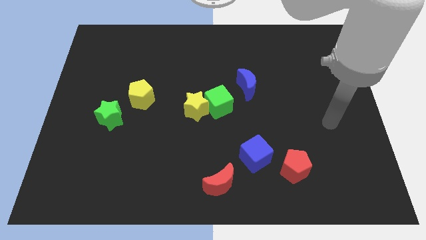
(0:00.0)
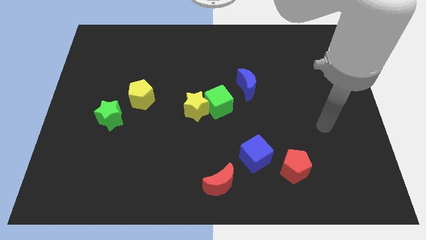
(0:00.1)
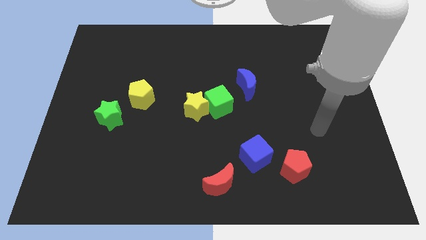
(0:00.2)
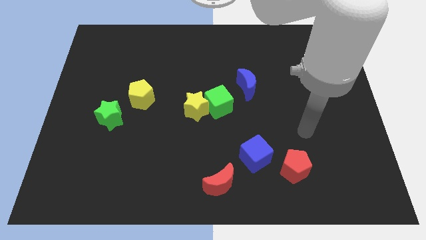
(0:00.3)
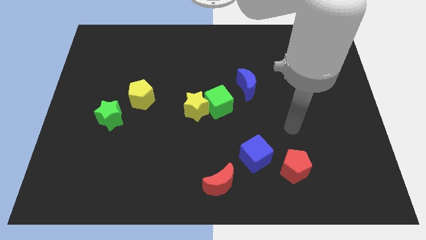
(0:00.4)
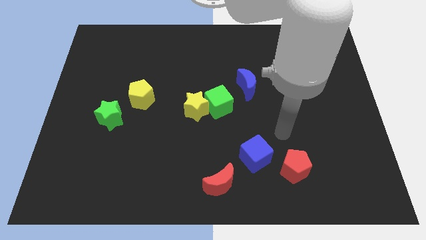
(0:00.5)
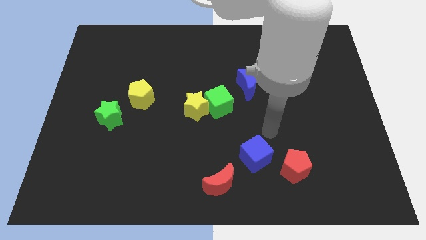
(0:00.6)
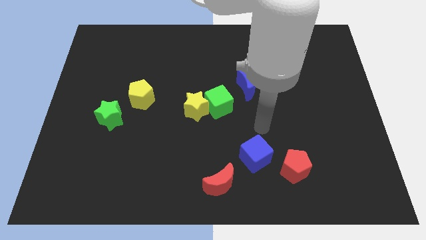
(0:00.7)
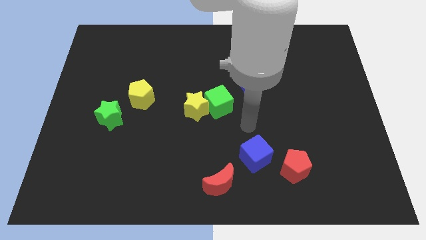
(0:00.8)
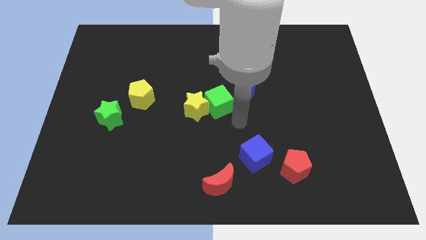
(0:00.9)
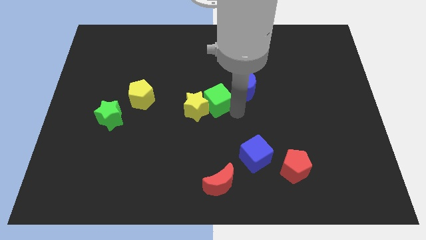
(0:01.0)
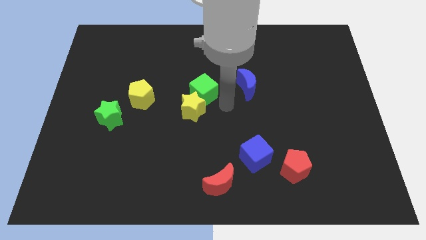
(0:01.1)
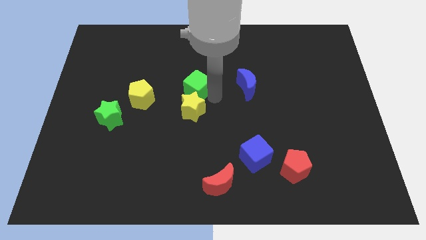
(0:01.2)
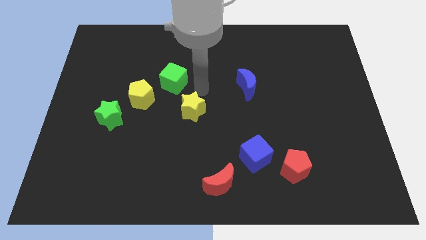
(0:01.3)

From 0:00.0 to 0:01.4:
pull the yellow star apart from the green cube

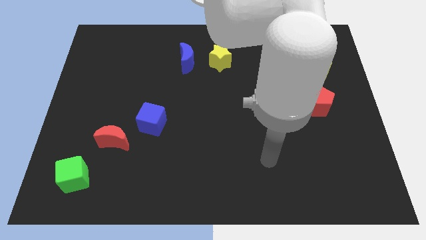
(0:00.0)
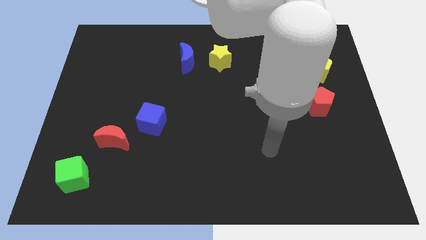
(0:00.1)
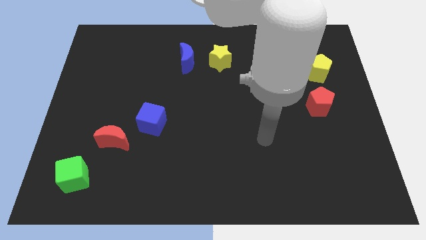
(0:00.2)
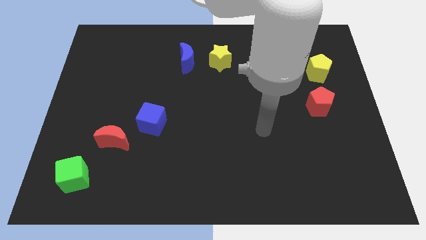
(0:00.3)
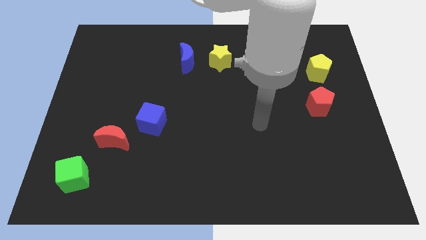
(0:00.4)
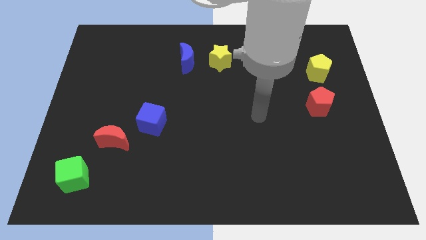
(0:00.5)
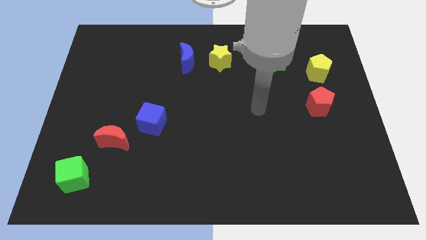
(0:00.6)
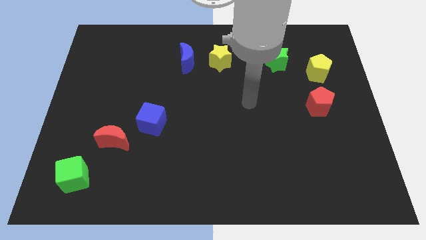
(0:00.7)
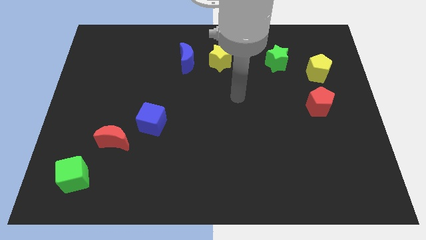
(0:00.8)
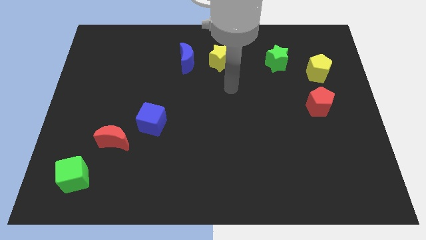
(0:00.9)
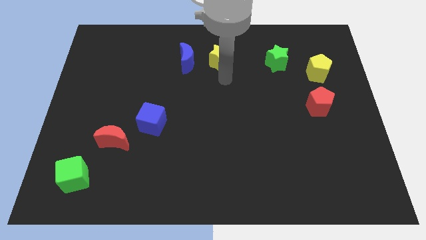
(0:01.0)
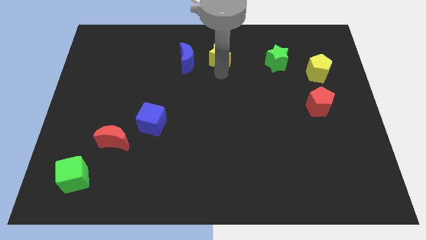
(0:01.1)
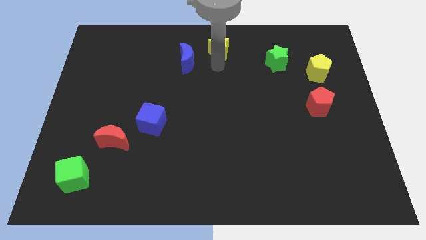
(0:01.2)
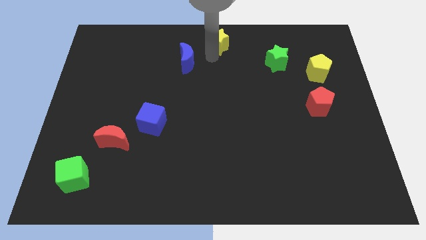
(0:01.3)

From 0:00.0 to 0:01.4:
pull the blue moon apart from the yellow star

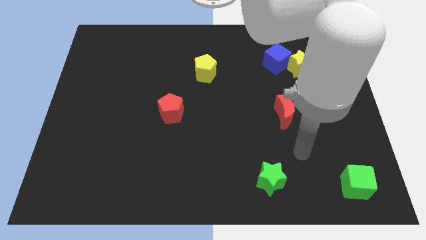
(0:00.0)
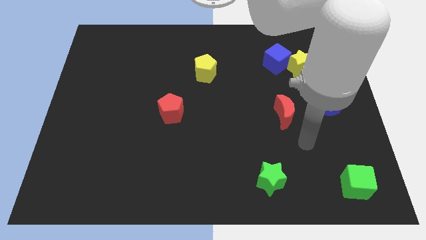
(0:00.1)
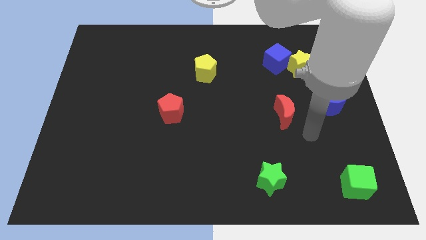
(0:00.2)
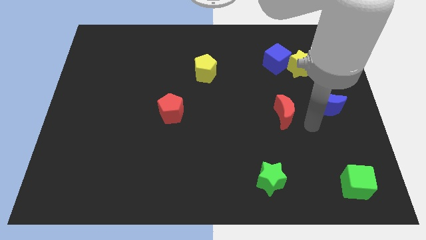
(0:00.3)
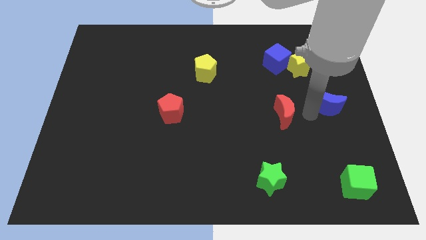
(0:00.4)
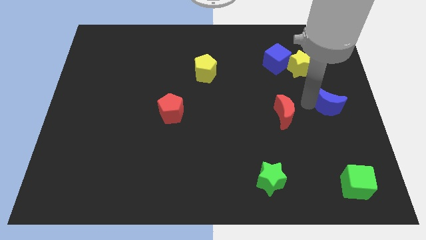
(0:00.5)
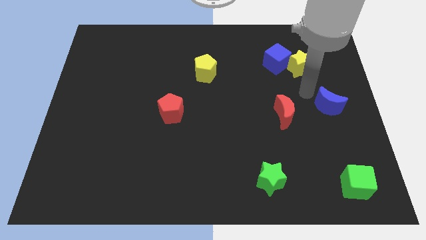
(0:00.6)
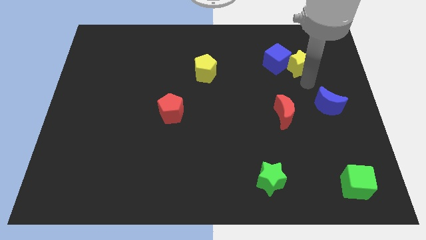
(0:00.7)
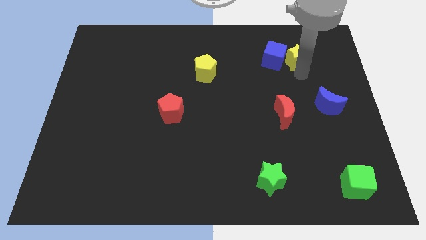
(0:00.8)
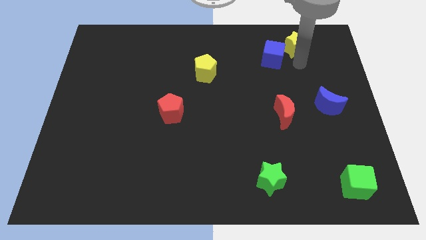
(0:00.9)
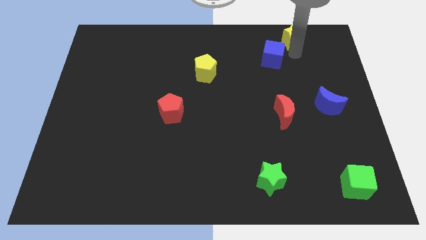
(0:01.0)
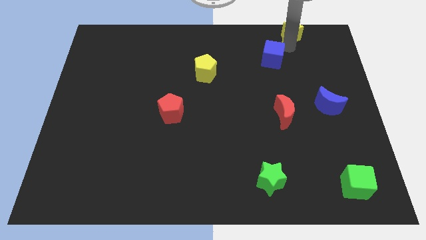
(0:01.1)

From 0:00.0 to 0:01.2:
pull the blue cube apart from the yellow star

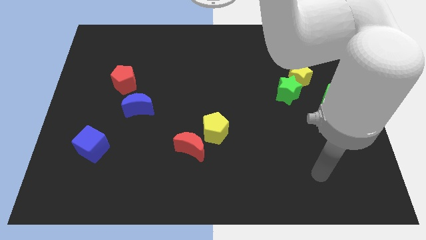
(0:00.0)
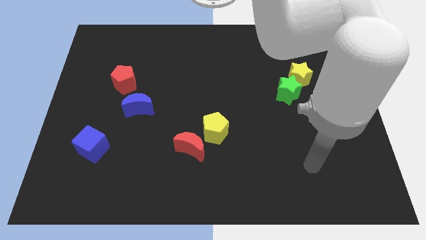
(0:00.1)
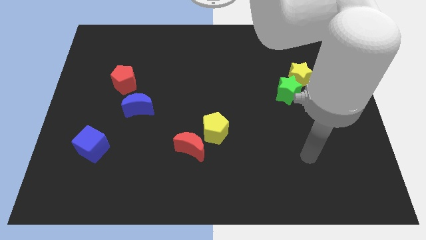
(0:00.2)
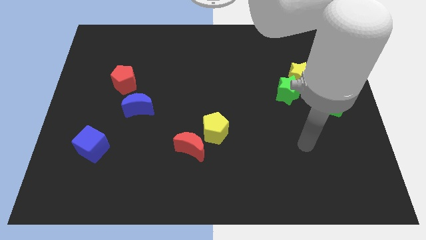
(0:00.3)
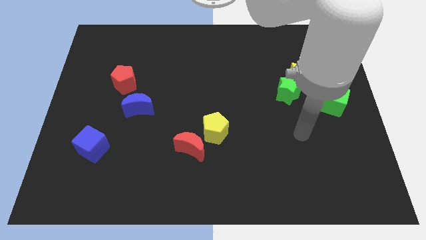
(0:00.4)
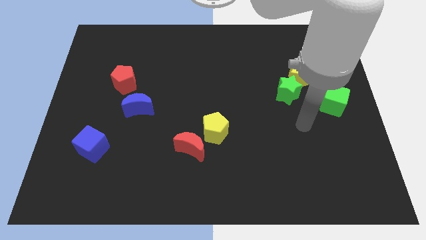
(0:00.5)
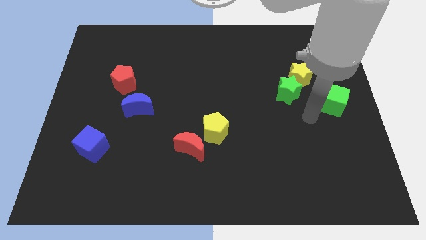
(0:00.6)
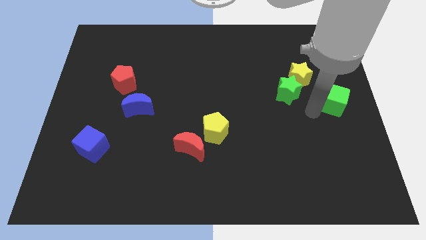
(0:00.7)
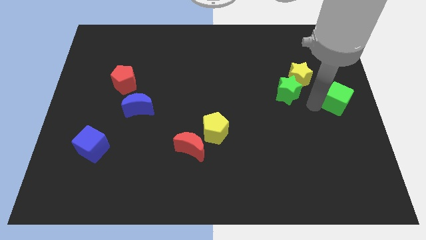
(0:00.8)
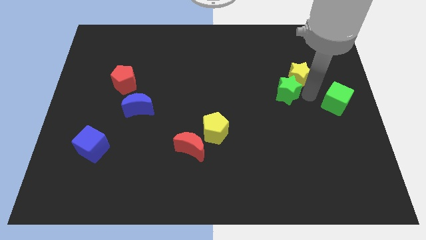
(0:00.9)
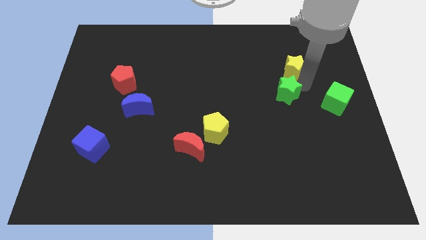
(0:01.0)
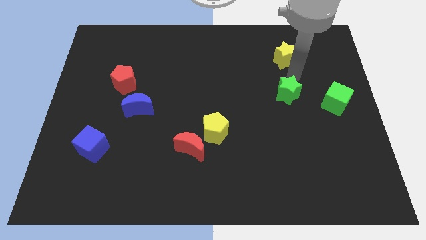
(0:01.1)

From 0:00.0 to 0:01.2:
separate the green star from the yellow star

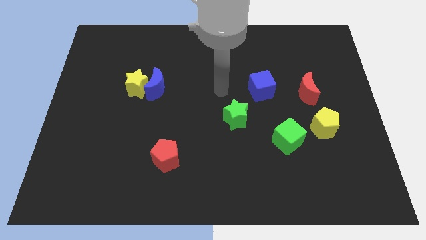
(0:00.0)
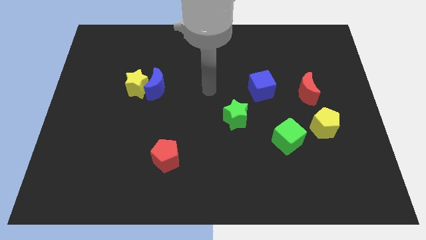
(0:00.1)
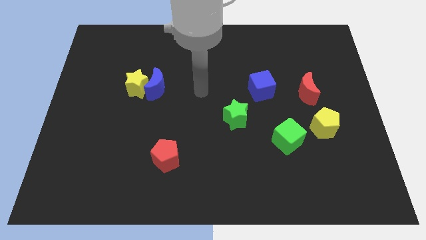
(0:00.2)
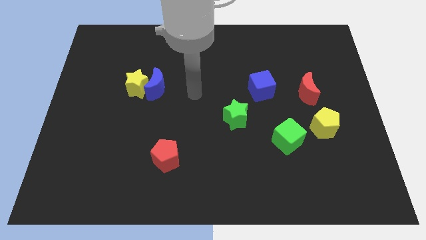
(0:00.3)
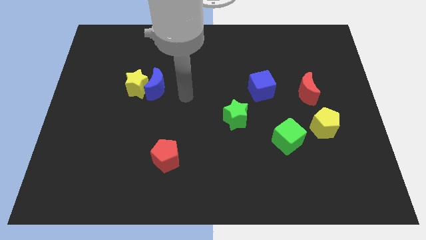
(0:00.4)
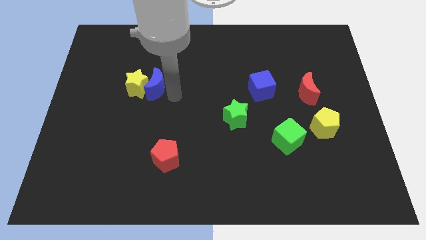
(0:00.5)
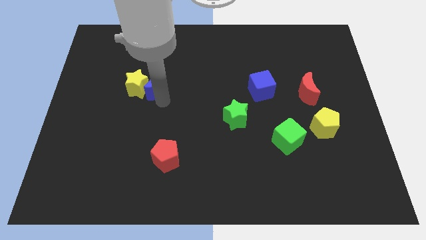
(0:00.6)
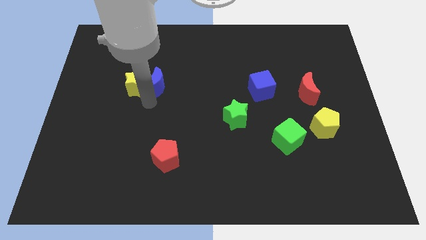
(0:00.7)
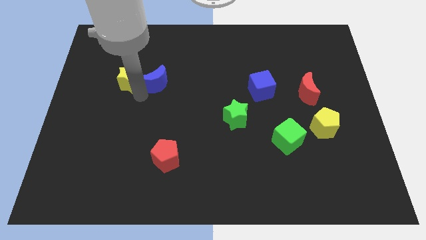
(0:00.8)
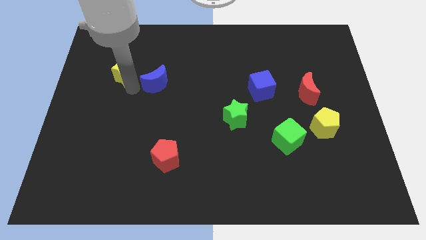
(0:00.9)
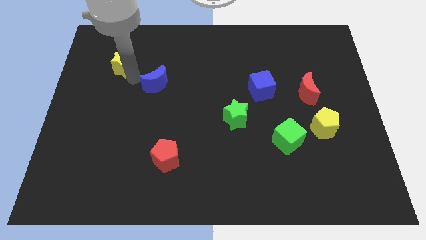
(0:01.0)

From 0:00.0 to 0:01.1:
move the blue moon away from the yellow star

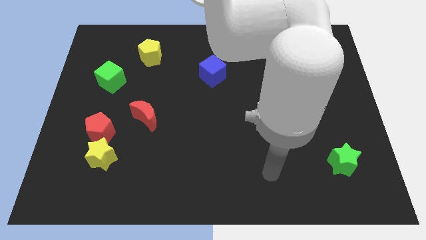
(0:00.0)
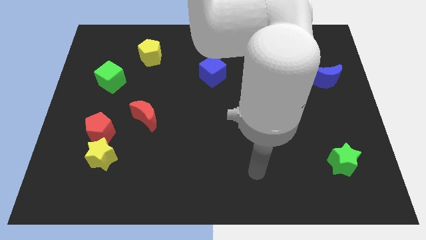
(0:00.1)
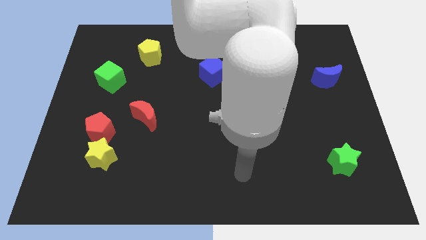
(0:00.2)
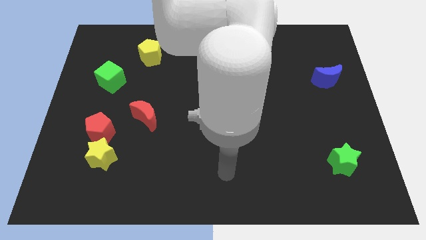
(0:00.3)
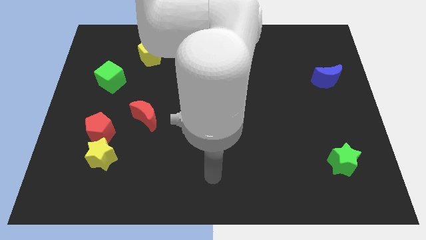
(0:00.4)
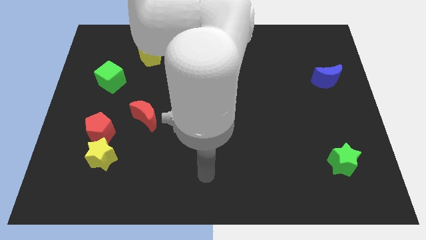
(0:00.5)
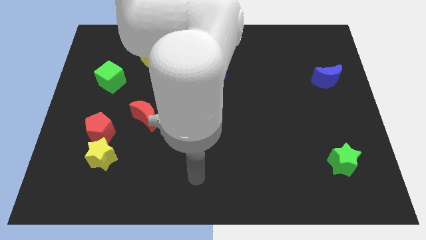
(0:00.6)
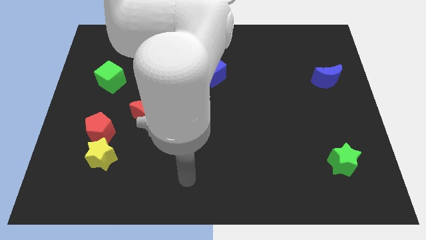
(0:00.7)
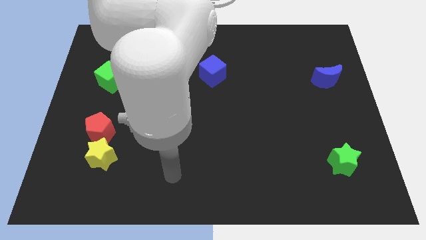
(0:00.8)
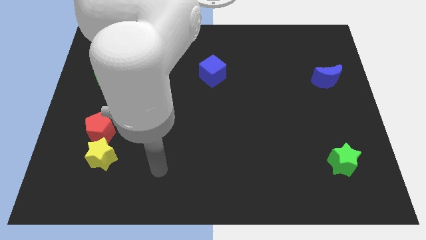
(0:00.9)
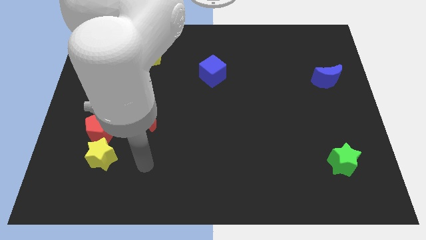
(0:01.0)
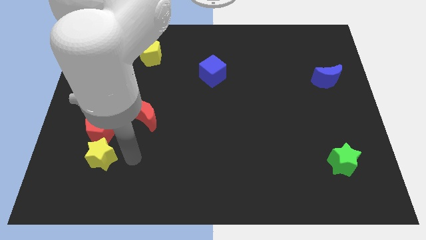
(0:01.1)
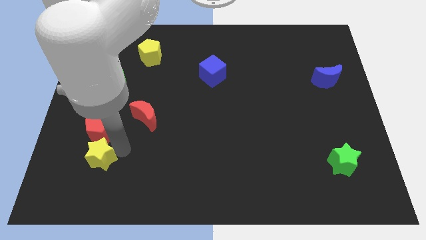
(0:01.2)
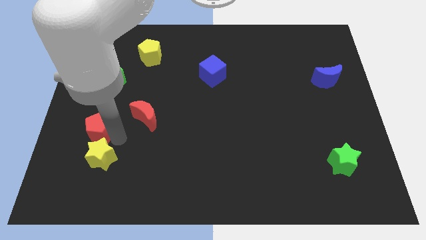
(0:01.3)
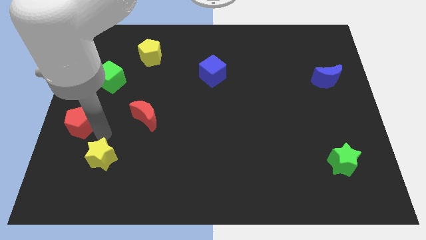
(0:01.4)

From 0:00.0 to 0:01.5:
move the yellow star away from the red pentagon

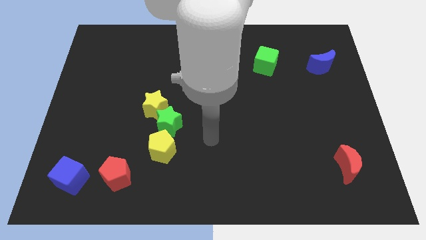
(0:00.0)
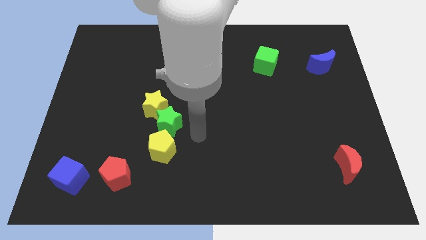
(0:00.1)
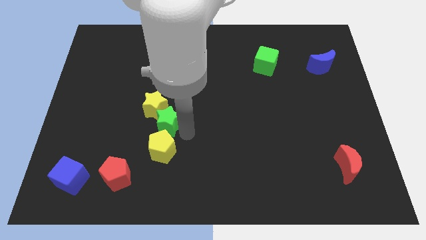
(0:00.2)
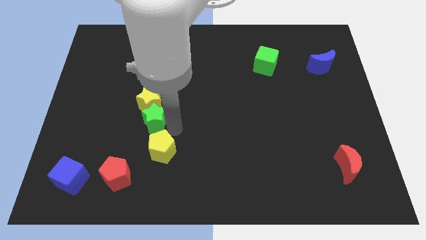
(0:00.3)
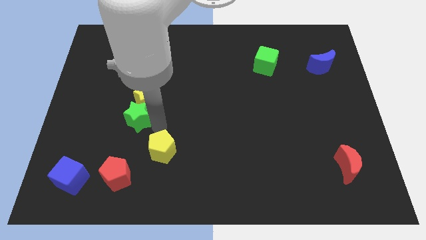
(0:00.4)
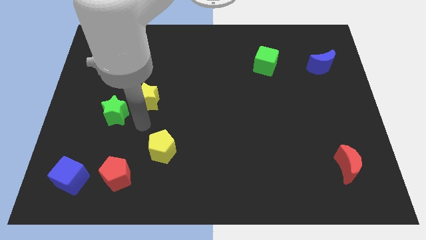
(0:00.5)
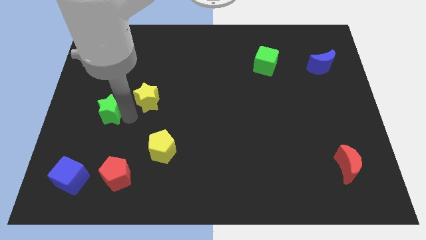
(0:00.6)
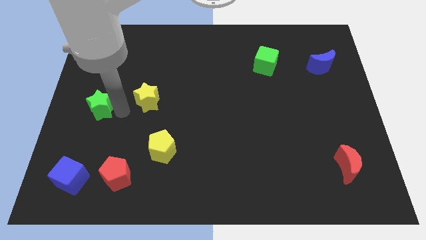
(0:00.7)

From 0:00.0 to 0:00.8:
separate the yellow star from the green star

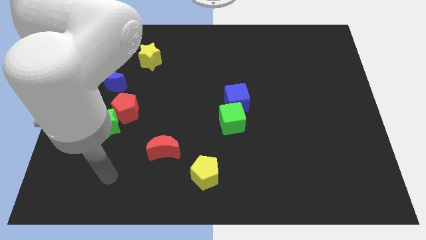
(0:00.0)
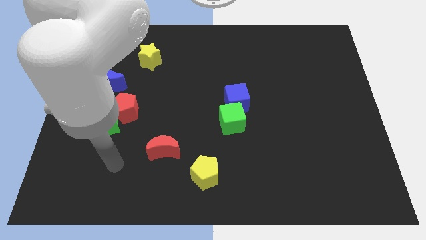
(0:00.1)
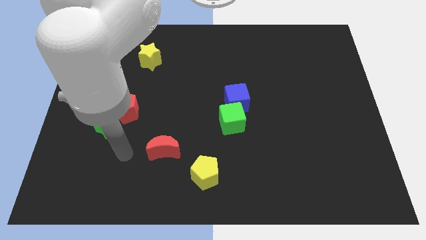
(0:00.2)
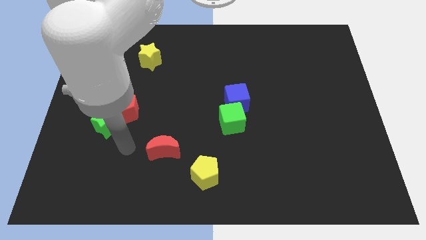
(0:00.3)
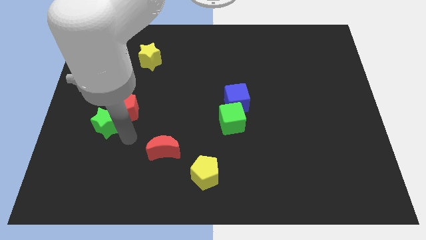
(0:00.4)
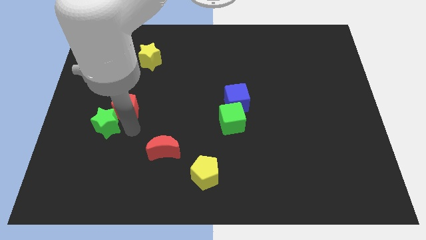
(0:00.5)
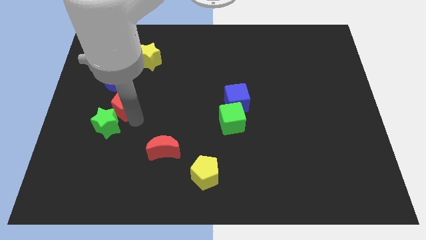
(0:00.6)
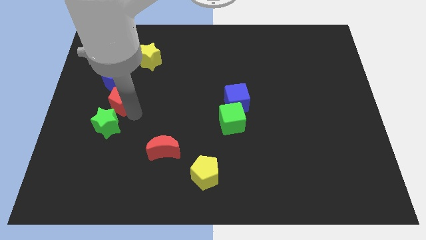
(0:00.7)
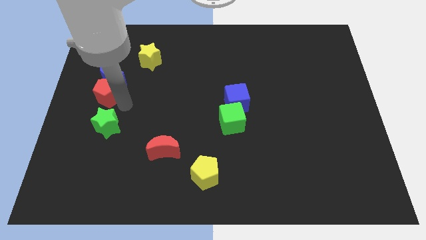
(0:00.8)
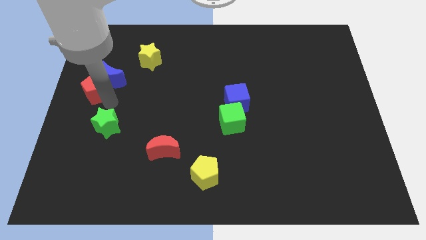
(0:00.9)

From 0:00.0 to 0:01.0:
separate the green star from the red pentagon
